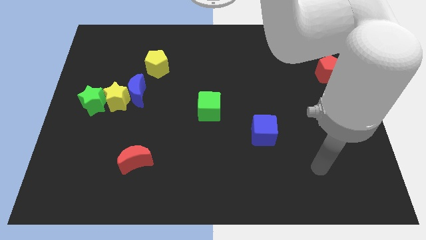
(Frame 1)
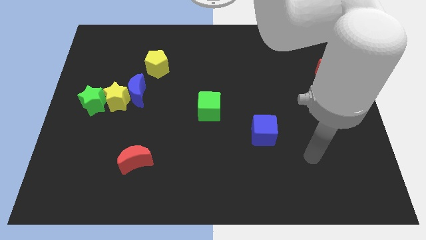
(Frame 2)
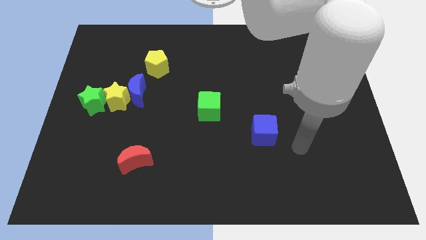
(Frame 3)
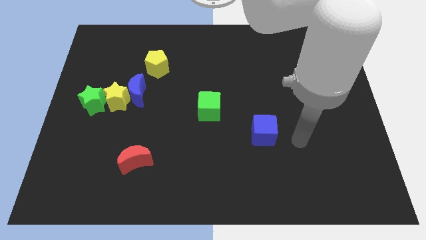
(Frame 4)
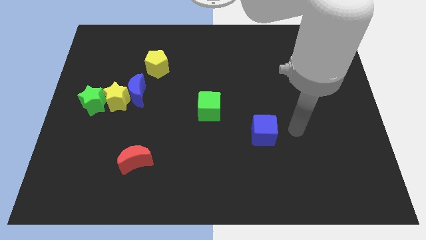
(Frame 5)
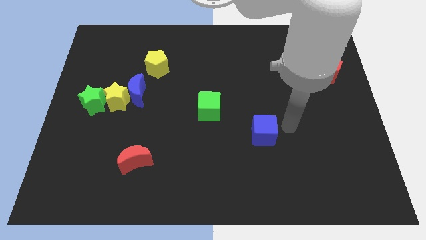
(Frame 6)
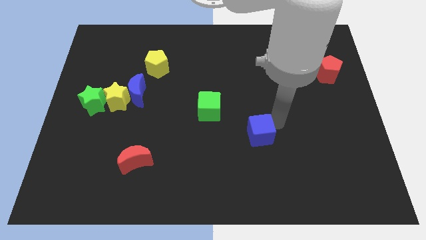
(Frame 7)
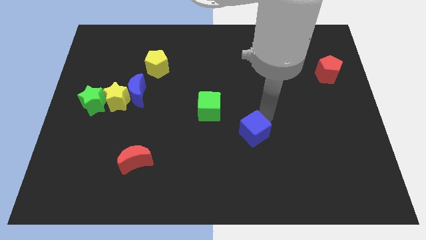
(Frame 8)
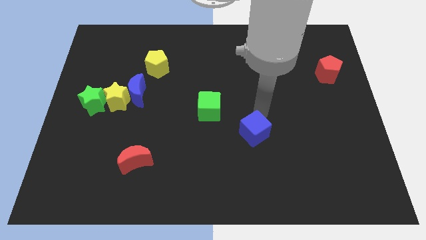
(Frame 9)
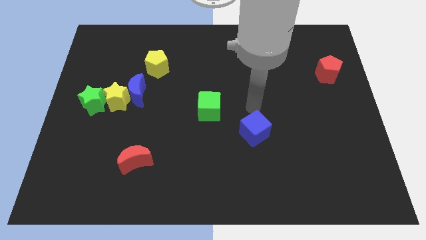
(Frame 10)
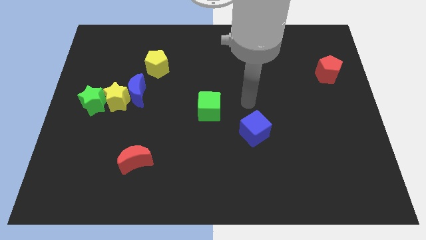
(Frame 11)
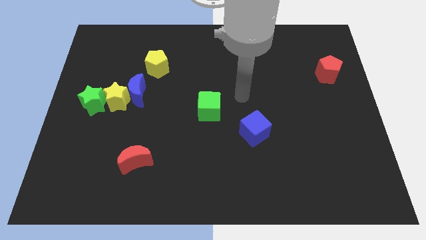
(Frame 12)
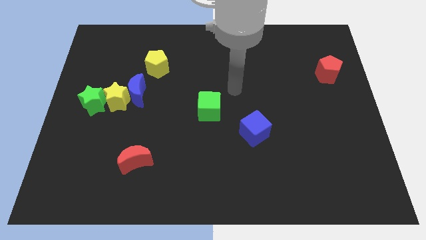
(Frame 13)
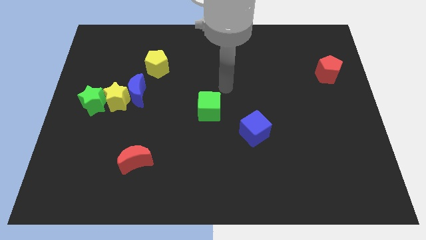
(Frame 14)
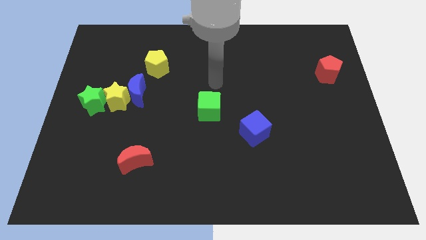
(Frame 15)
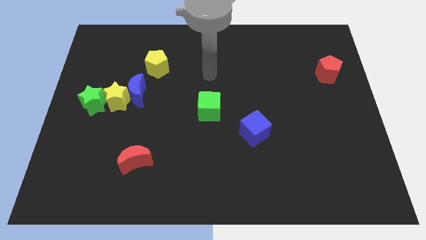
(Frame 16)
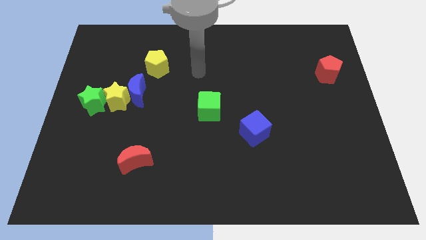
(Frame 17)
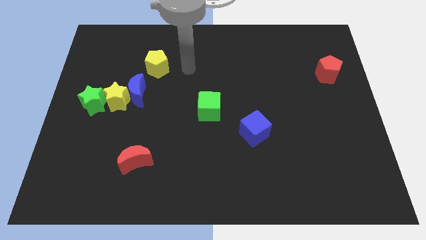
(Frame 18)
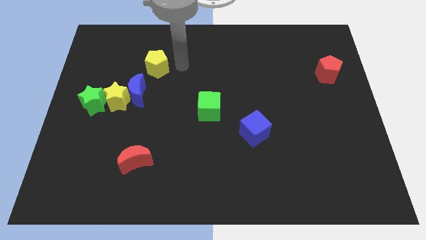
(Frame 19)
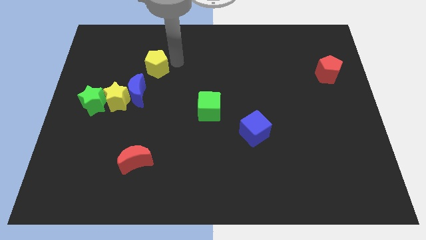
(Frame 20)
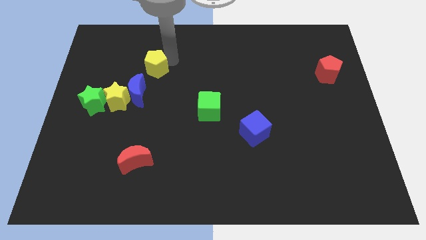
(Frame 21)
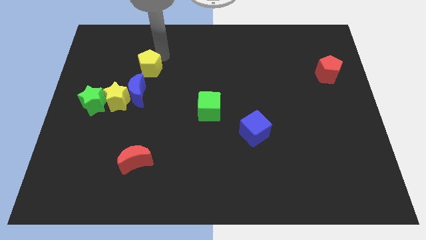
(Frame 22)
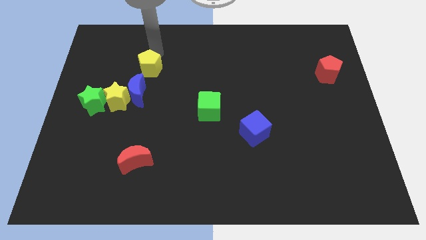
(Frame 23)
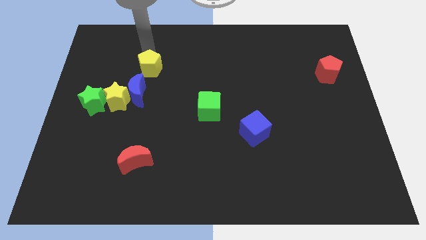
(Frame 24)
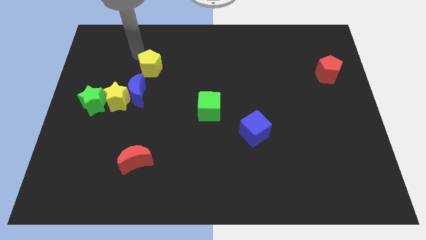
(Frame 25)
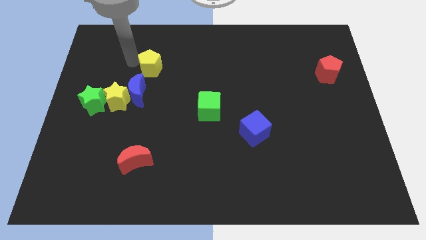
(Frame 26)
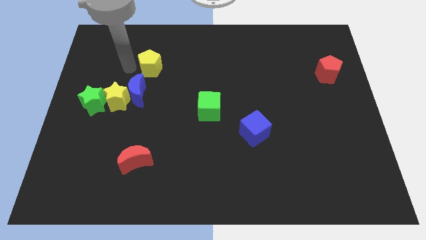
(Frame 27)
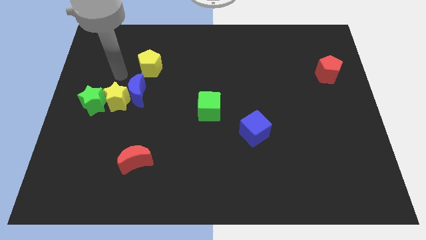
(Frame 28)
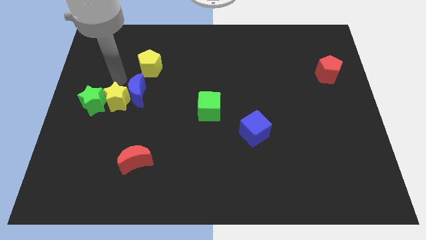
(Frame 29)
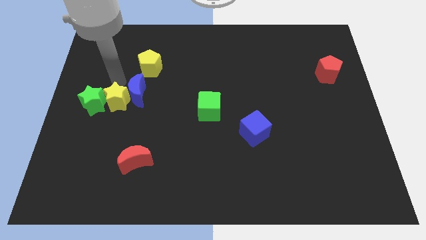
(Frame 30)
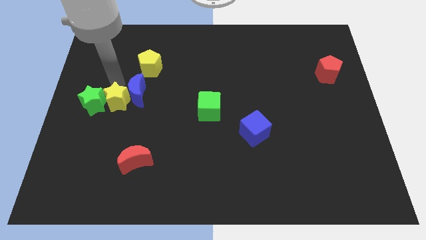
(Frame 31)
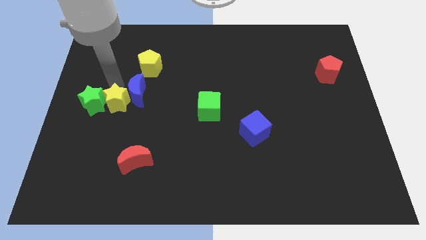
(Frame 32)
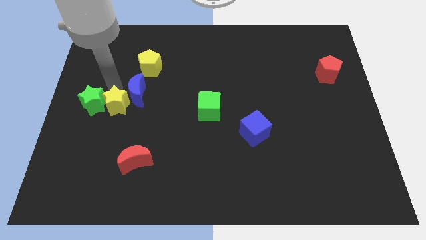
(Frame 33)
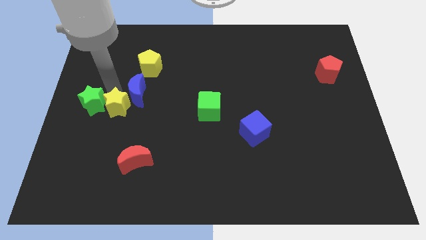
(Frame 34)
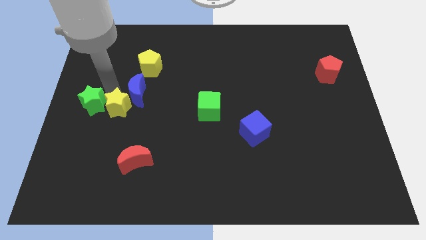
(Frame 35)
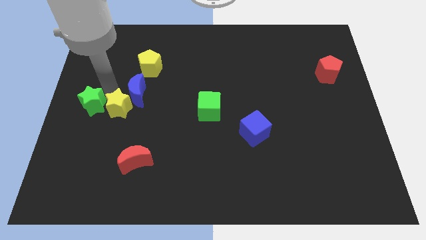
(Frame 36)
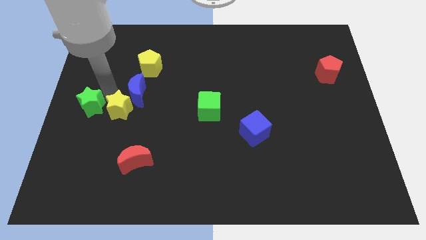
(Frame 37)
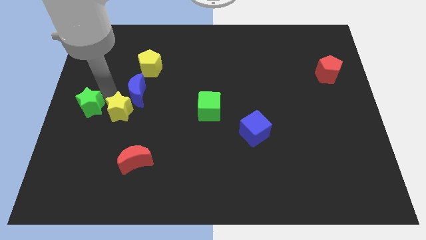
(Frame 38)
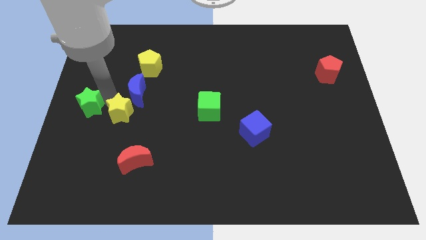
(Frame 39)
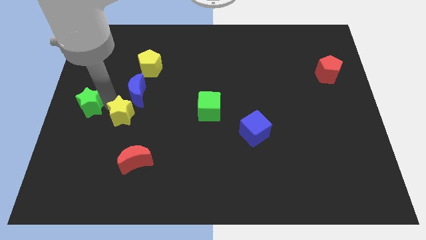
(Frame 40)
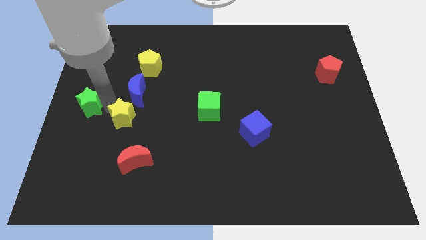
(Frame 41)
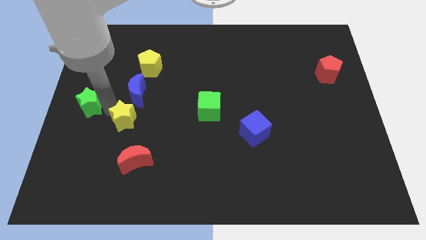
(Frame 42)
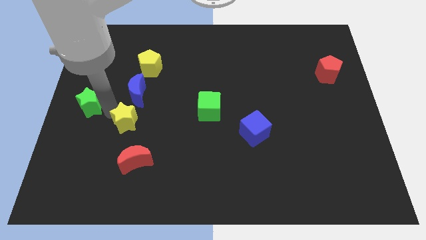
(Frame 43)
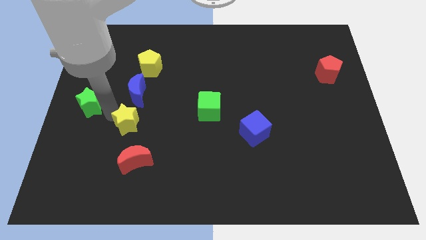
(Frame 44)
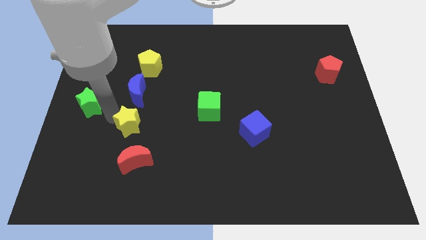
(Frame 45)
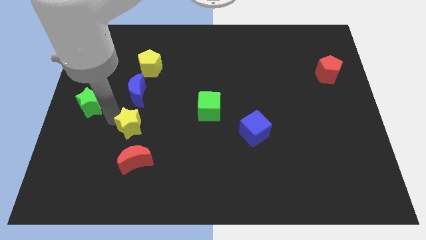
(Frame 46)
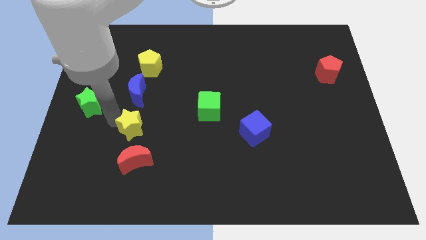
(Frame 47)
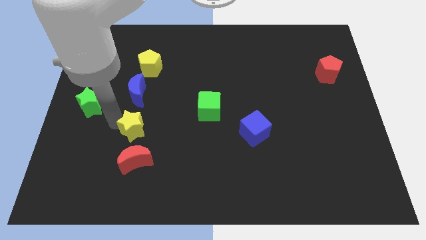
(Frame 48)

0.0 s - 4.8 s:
move the yellow star away from the blue moon and green star
